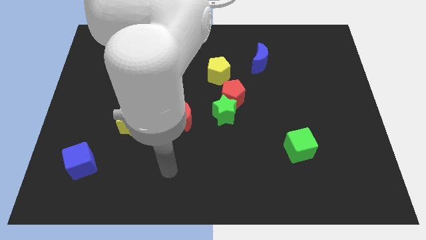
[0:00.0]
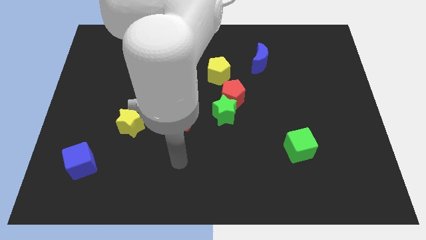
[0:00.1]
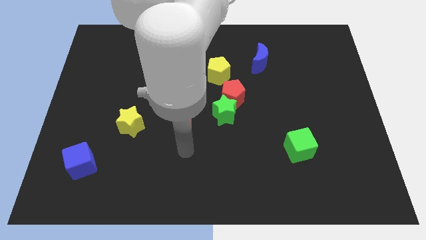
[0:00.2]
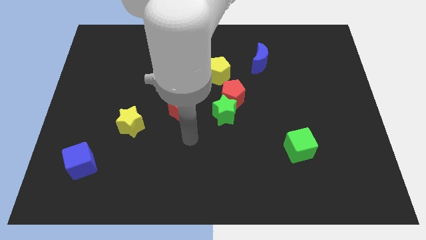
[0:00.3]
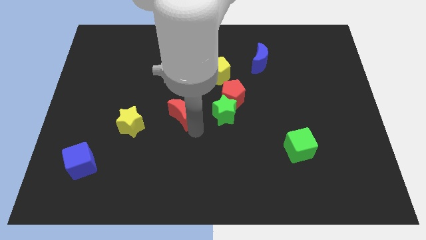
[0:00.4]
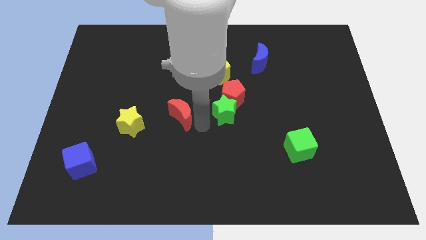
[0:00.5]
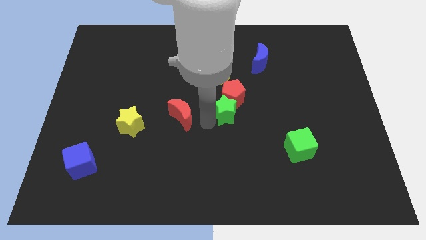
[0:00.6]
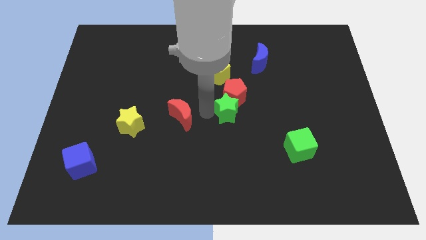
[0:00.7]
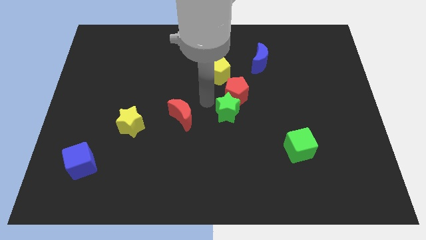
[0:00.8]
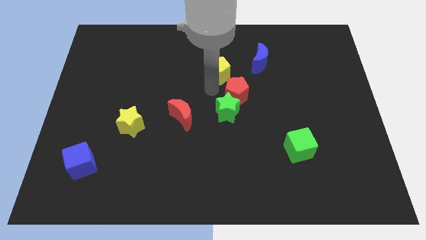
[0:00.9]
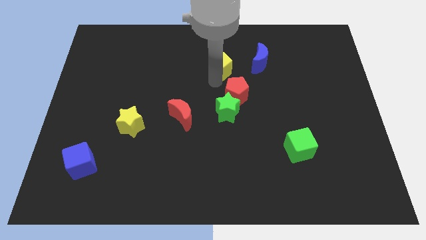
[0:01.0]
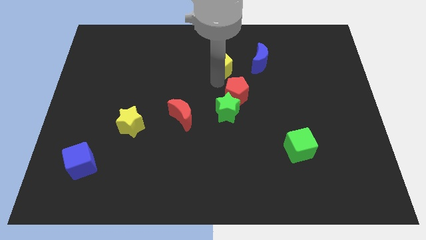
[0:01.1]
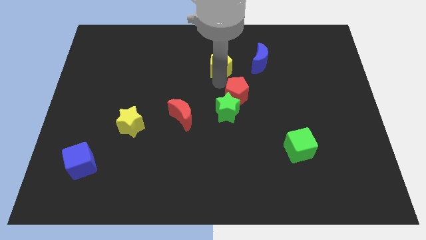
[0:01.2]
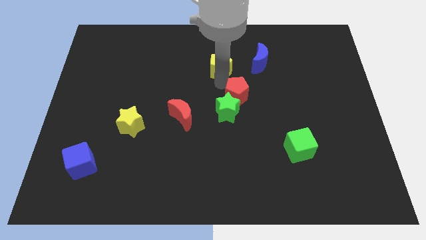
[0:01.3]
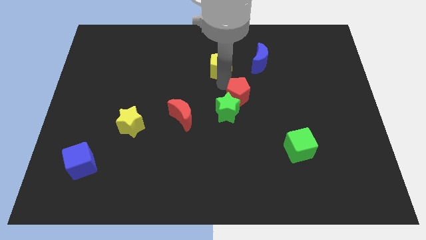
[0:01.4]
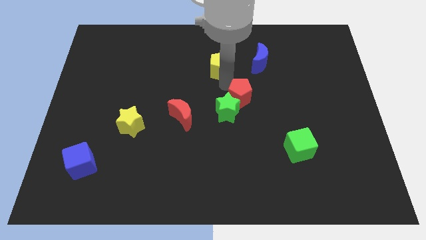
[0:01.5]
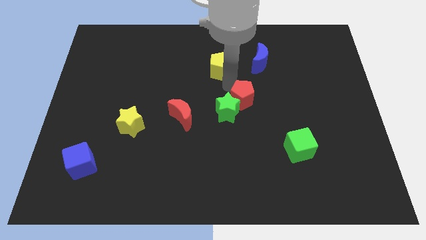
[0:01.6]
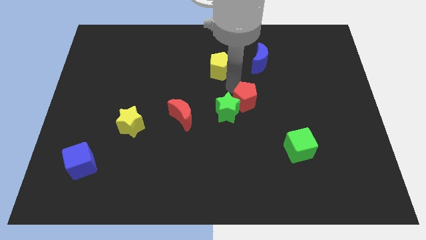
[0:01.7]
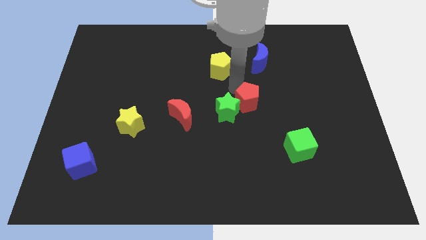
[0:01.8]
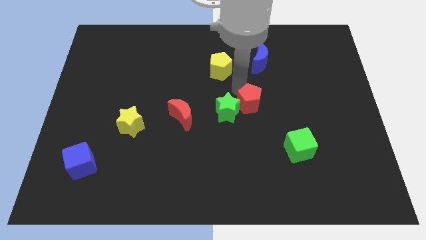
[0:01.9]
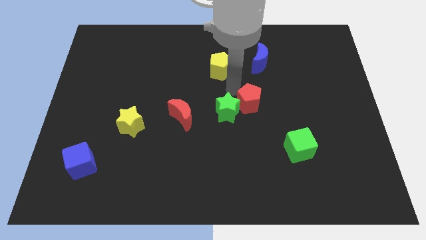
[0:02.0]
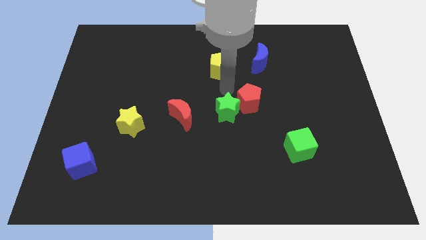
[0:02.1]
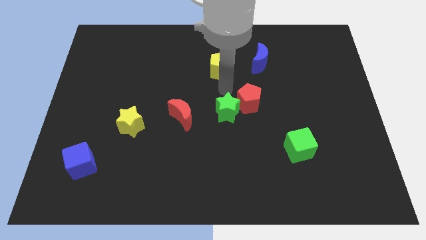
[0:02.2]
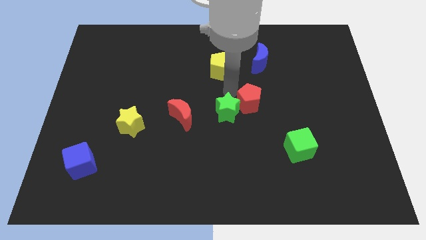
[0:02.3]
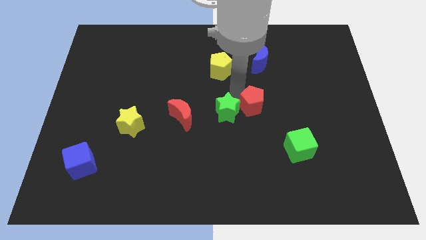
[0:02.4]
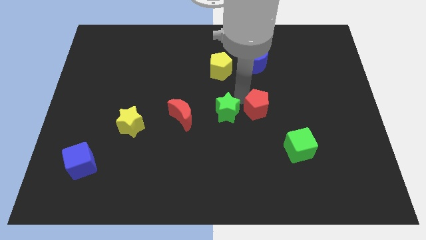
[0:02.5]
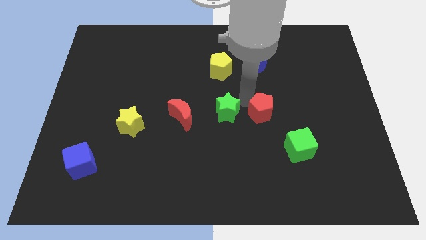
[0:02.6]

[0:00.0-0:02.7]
move the red pentagon away from the green star and yellow pentagon

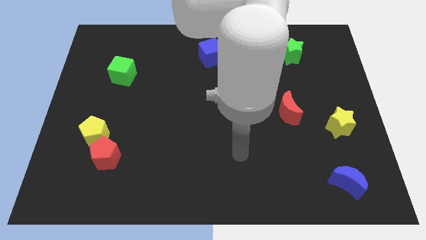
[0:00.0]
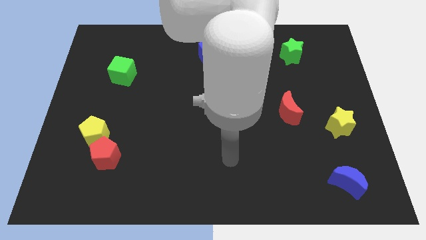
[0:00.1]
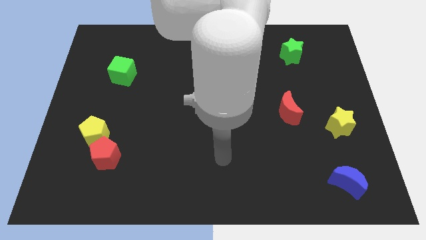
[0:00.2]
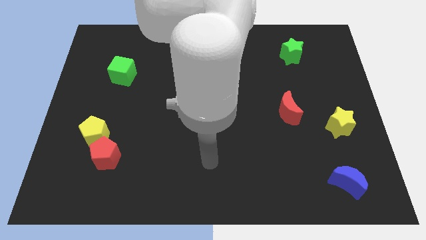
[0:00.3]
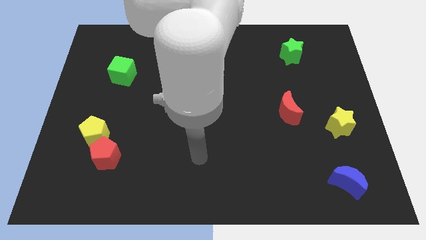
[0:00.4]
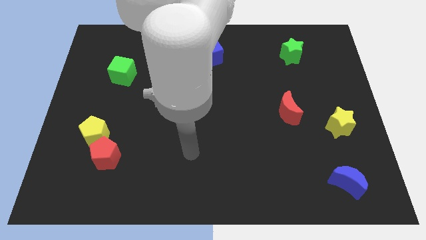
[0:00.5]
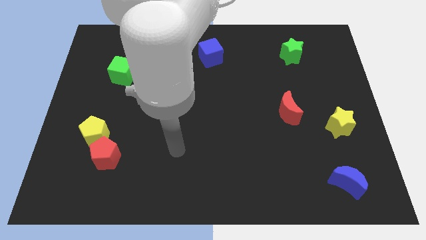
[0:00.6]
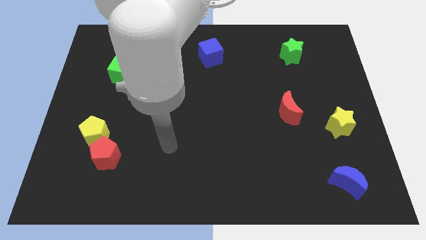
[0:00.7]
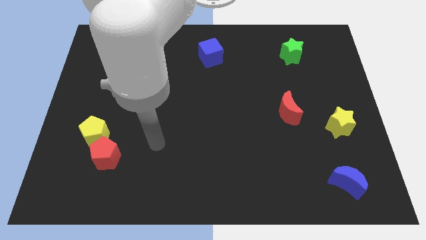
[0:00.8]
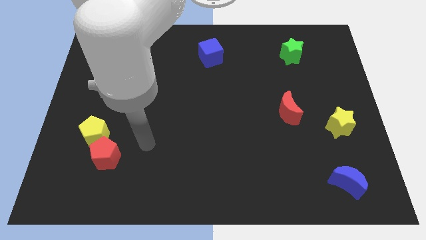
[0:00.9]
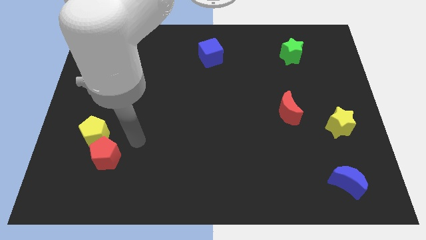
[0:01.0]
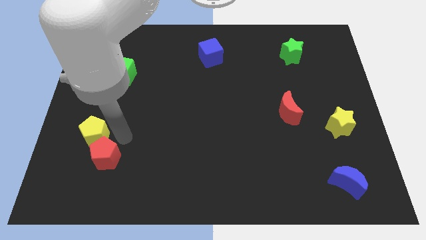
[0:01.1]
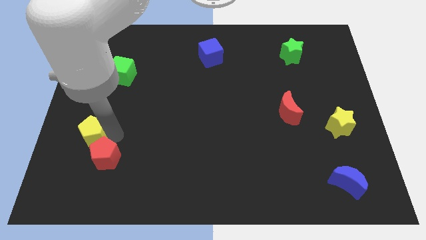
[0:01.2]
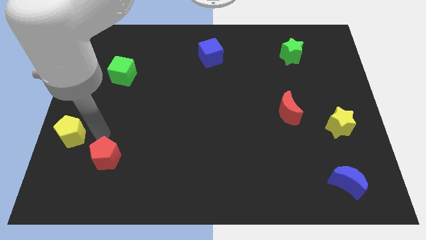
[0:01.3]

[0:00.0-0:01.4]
move the red pentagon away from the yellow pentagon

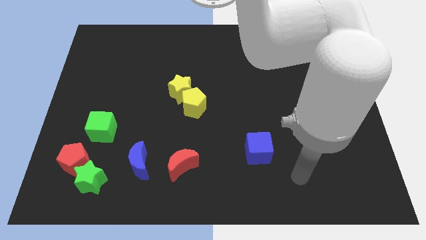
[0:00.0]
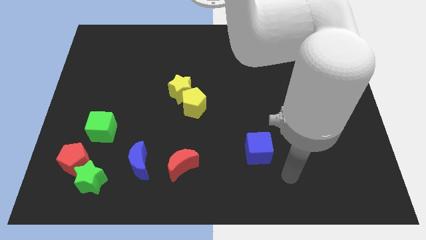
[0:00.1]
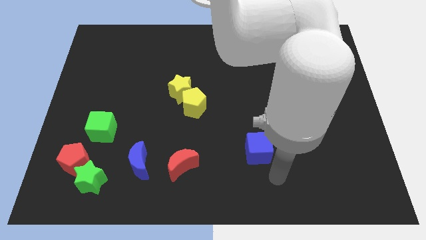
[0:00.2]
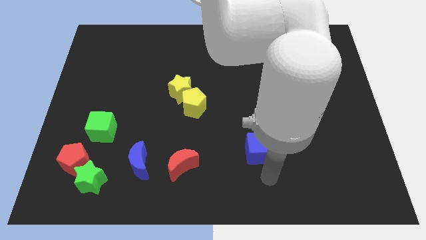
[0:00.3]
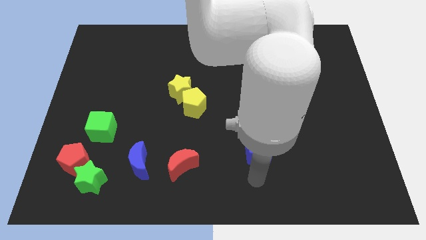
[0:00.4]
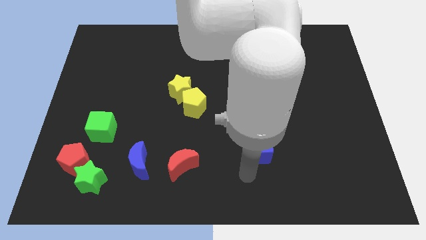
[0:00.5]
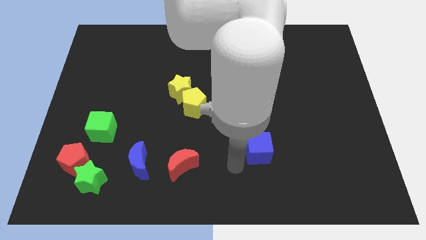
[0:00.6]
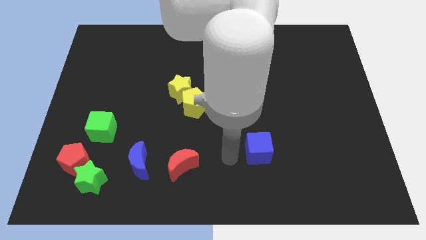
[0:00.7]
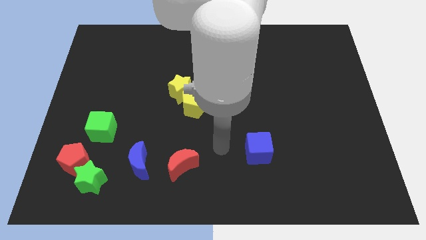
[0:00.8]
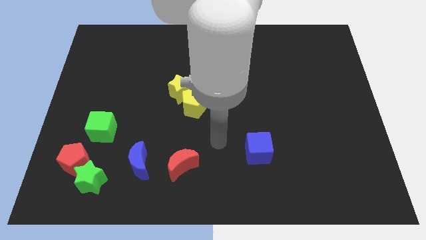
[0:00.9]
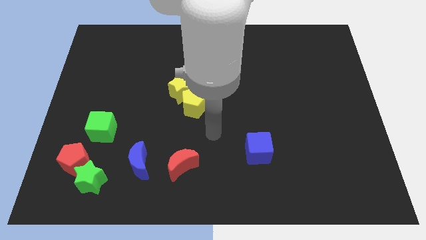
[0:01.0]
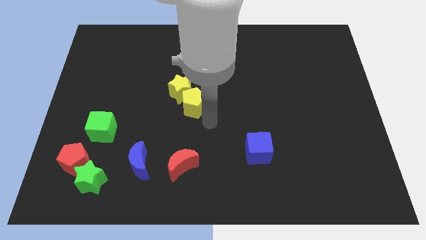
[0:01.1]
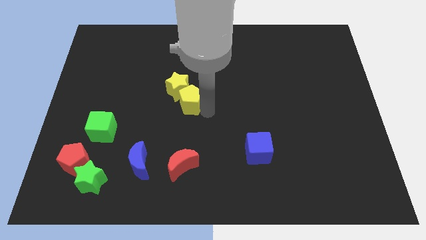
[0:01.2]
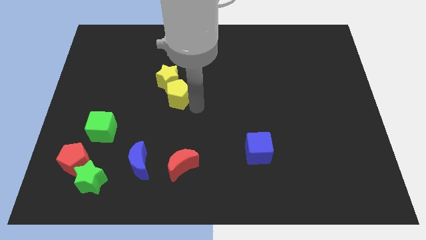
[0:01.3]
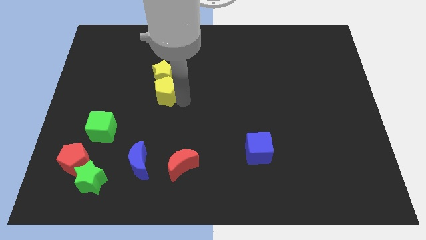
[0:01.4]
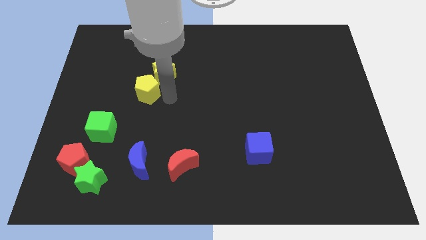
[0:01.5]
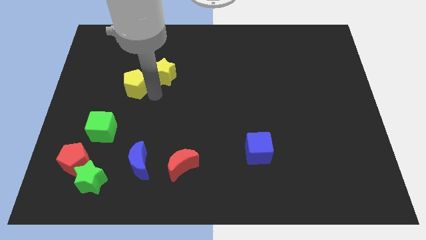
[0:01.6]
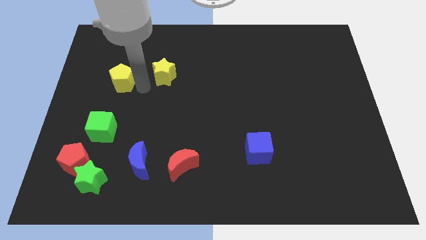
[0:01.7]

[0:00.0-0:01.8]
pull the yellow star apart from the yellow pentagon

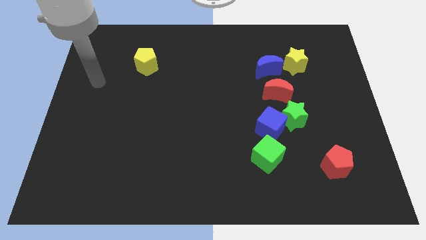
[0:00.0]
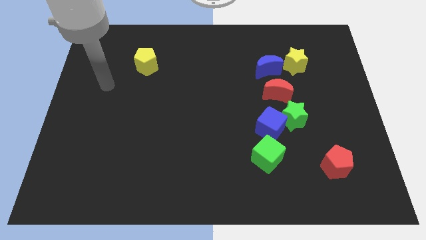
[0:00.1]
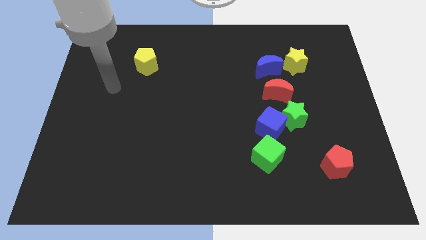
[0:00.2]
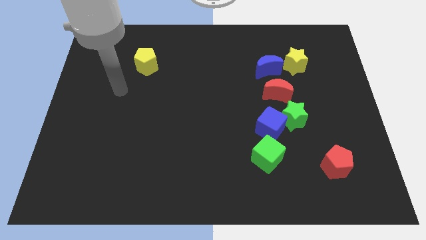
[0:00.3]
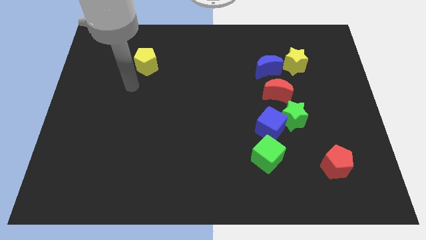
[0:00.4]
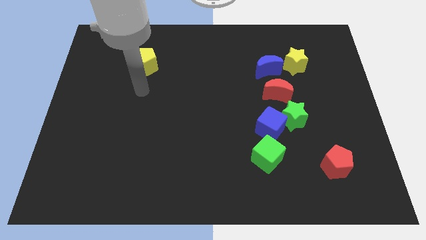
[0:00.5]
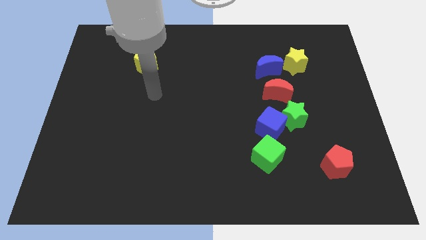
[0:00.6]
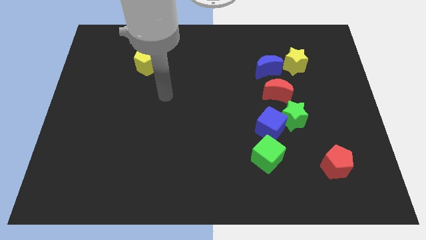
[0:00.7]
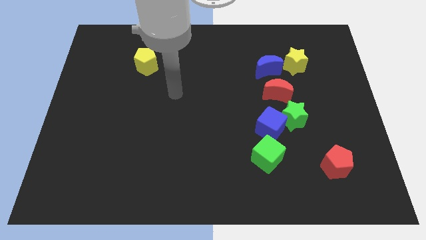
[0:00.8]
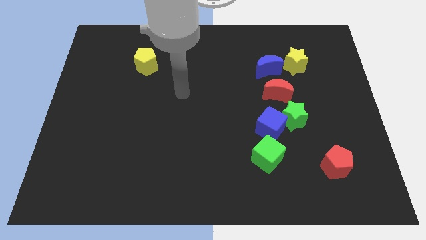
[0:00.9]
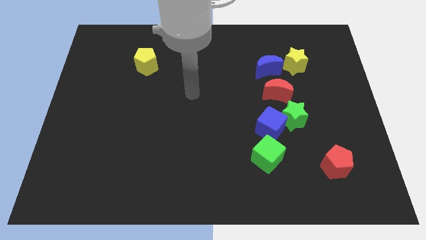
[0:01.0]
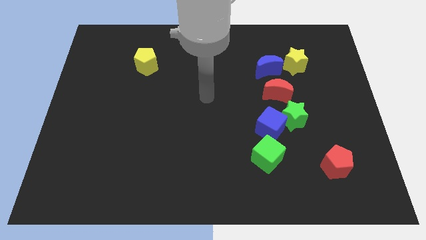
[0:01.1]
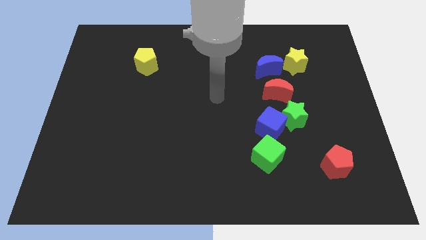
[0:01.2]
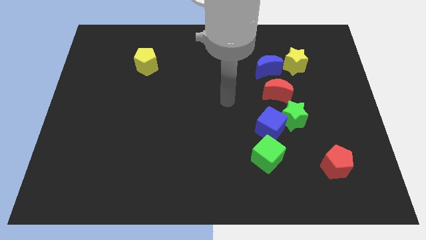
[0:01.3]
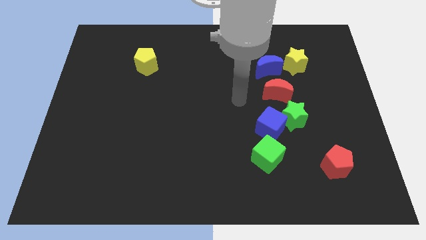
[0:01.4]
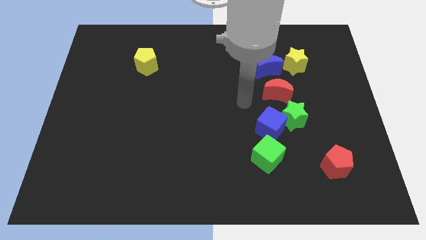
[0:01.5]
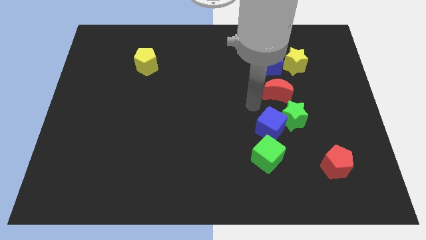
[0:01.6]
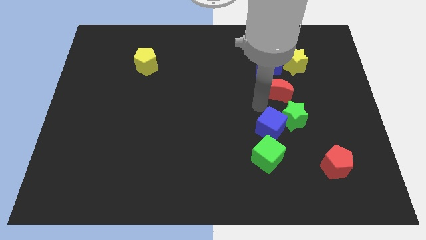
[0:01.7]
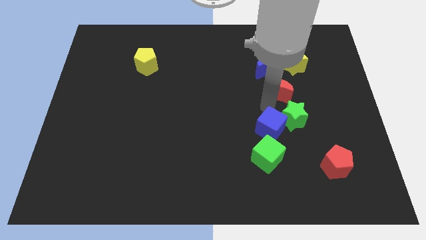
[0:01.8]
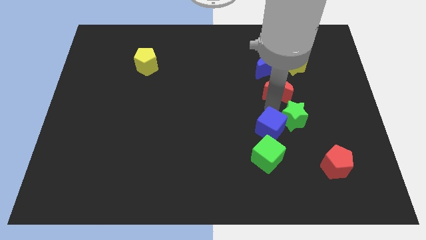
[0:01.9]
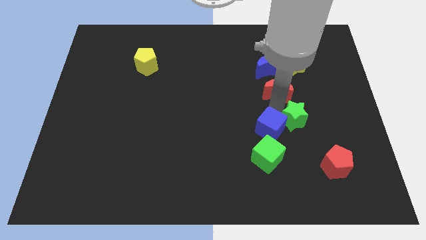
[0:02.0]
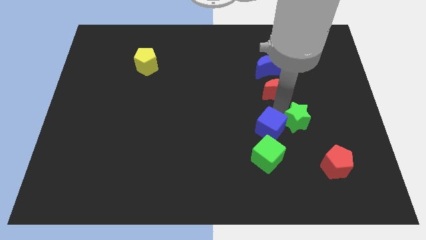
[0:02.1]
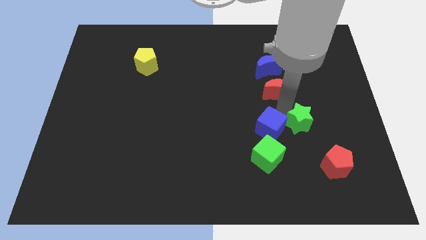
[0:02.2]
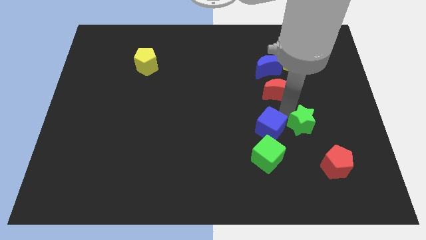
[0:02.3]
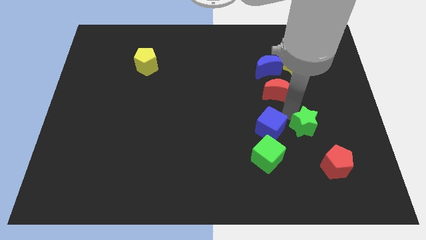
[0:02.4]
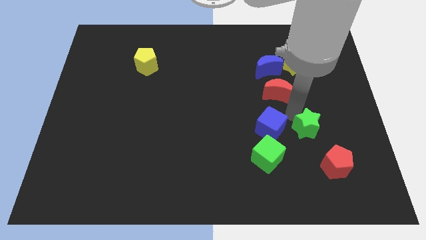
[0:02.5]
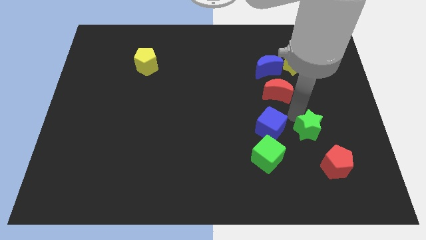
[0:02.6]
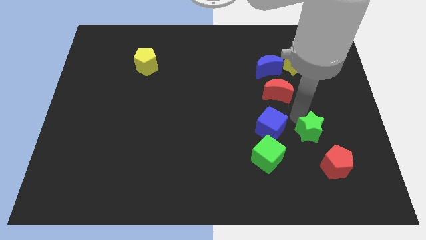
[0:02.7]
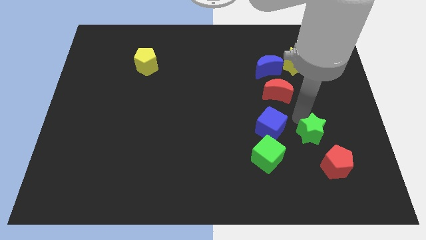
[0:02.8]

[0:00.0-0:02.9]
move the green star away from the blue cube and red moon

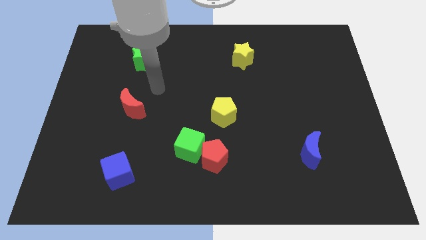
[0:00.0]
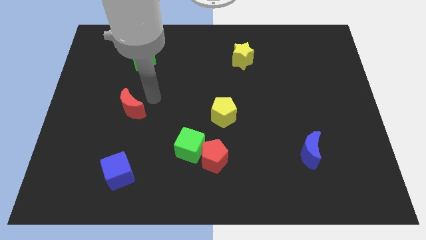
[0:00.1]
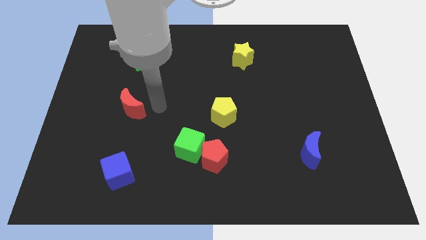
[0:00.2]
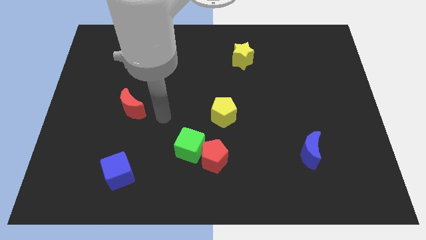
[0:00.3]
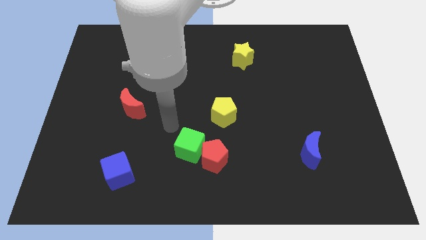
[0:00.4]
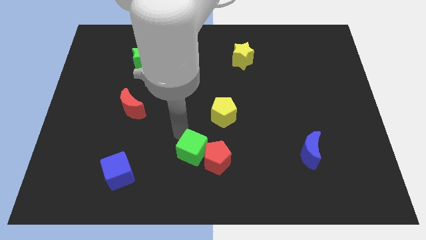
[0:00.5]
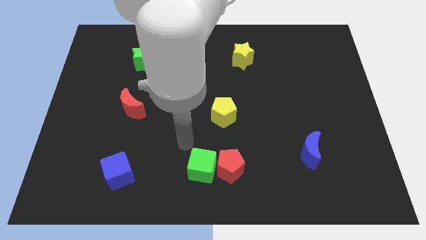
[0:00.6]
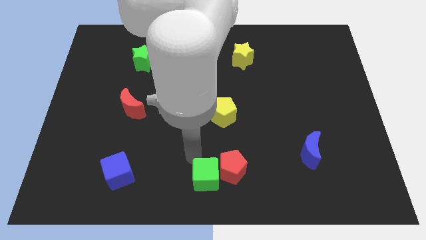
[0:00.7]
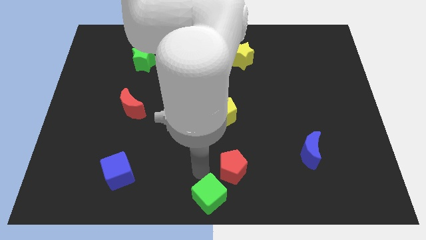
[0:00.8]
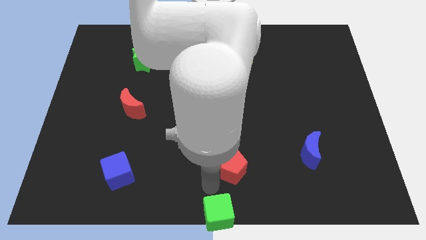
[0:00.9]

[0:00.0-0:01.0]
move the red pentagon away from the green cube
